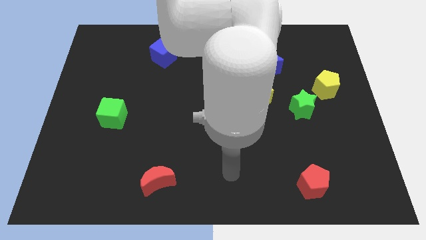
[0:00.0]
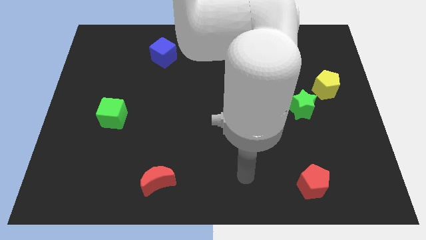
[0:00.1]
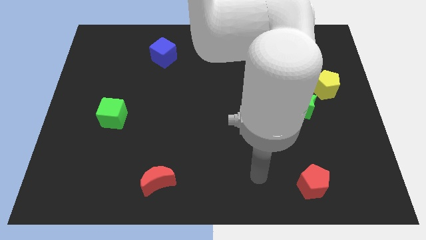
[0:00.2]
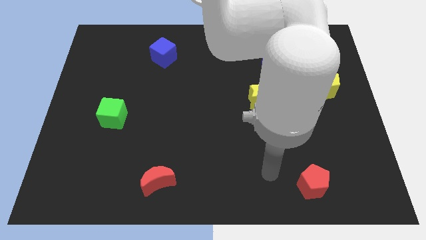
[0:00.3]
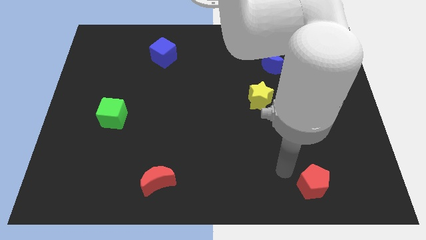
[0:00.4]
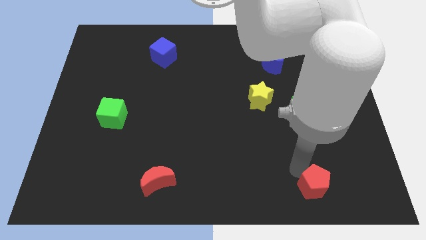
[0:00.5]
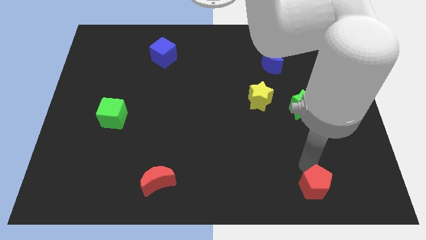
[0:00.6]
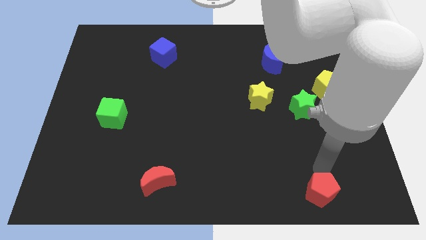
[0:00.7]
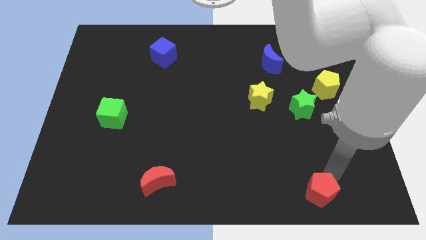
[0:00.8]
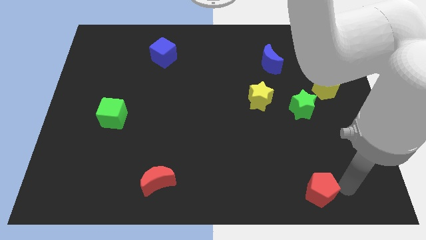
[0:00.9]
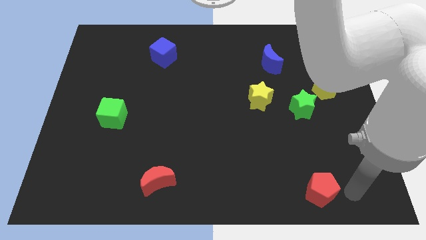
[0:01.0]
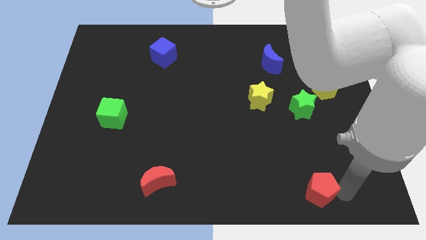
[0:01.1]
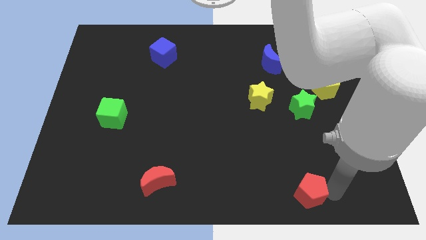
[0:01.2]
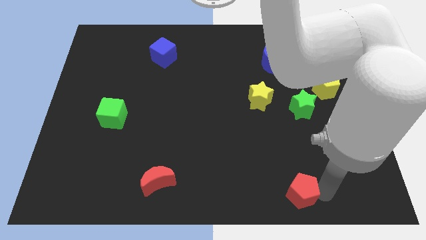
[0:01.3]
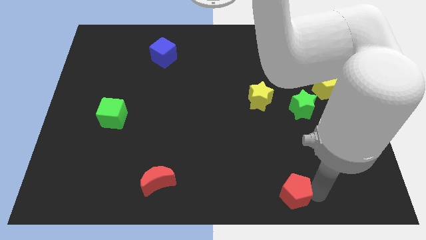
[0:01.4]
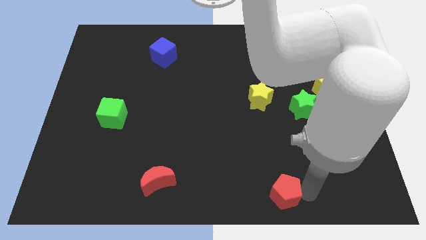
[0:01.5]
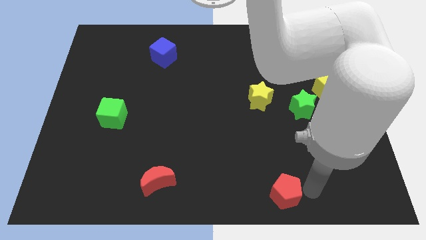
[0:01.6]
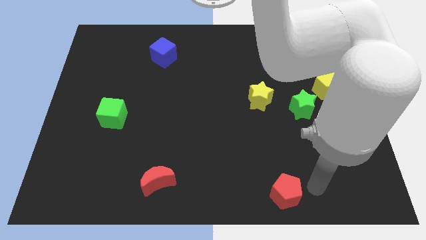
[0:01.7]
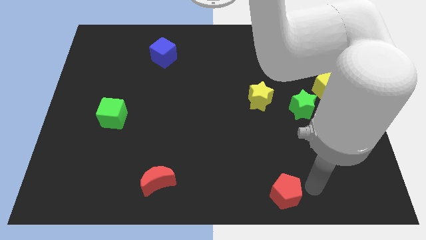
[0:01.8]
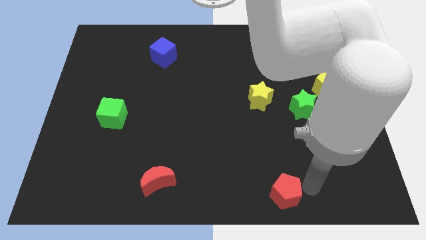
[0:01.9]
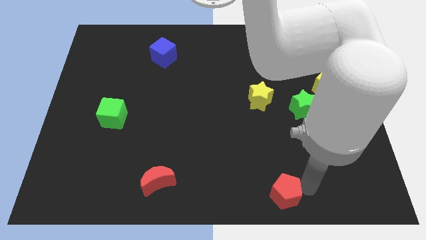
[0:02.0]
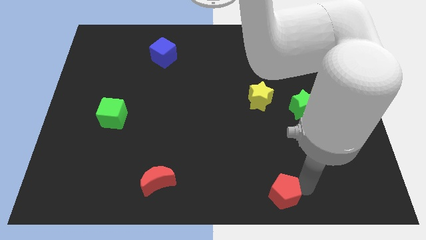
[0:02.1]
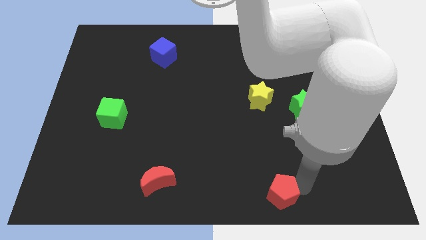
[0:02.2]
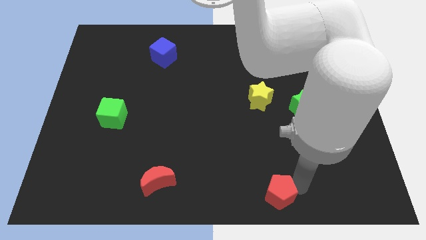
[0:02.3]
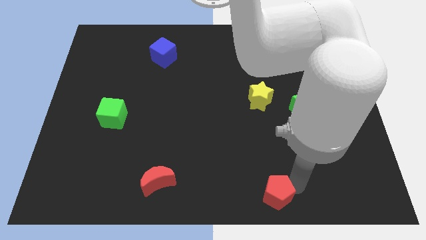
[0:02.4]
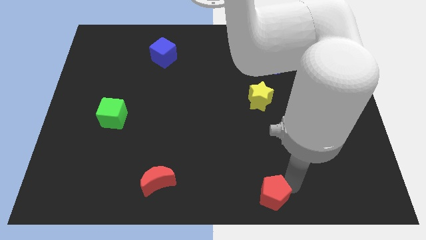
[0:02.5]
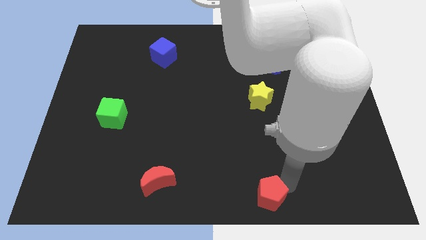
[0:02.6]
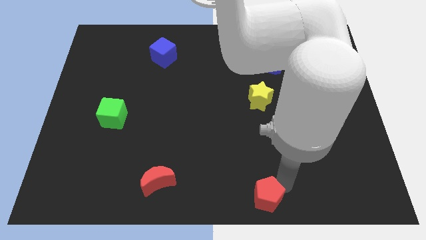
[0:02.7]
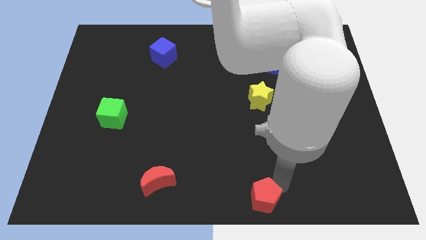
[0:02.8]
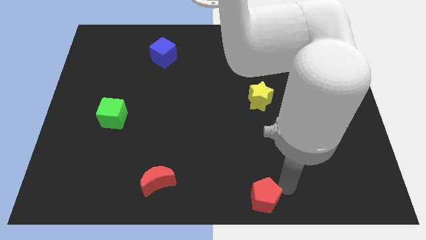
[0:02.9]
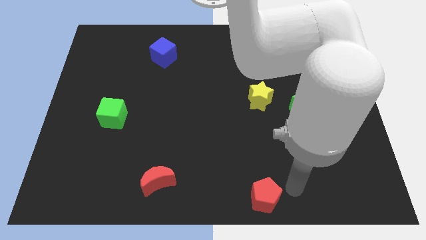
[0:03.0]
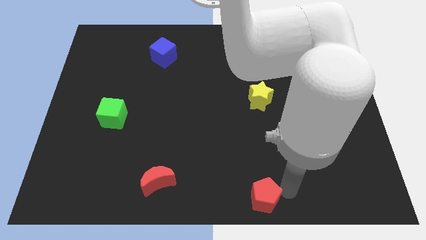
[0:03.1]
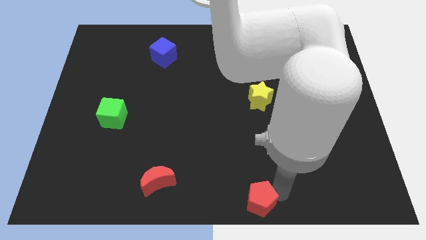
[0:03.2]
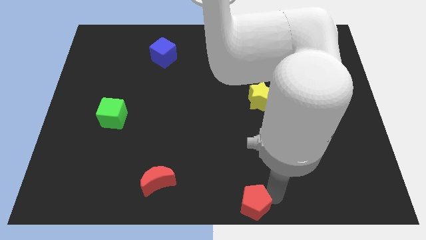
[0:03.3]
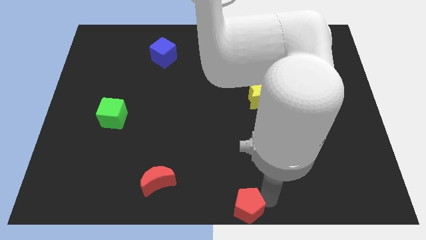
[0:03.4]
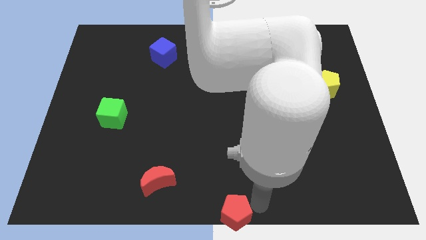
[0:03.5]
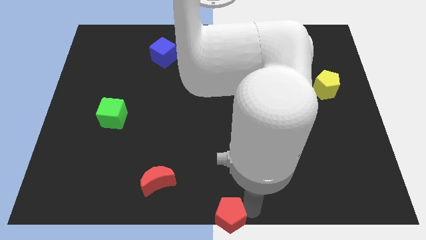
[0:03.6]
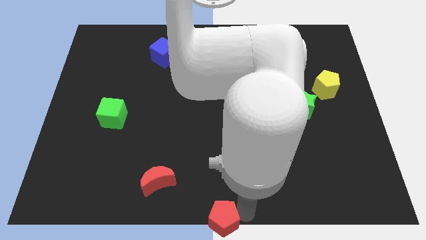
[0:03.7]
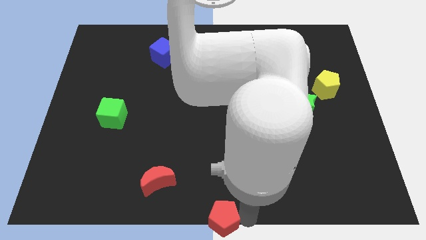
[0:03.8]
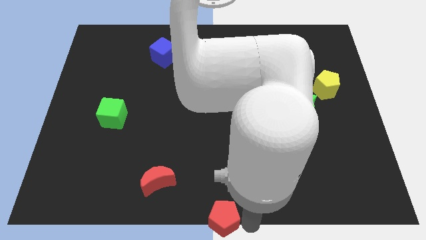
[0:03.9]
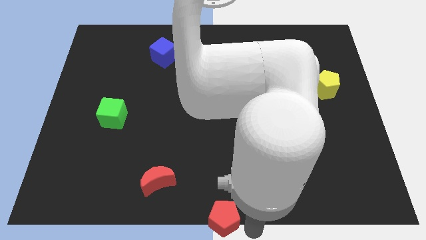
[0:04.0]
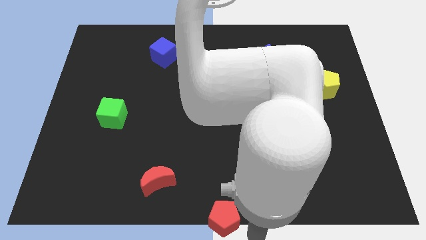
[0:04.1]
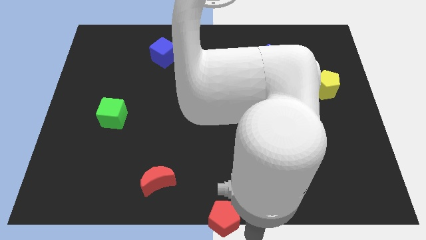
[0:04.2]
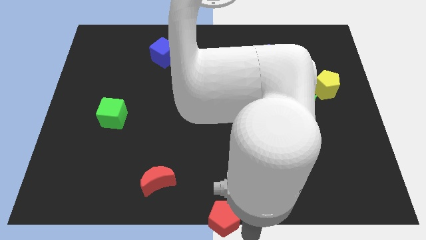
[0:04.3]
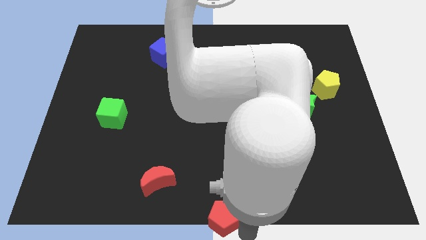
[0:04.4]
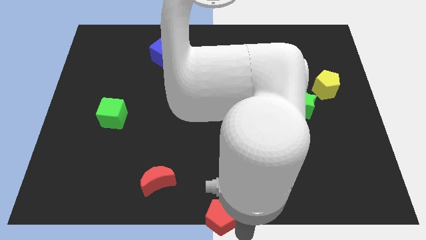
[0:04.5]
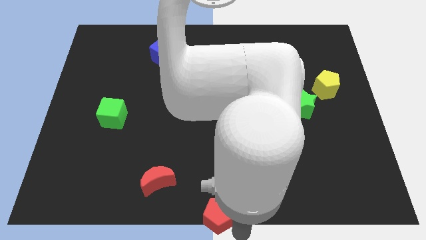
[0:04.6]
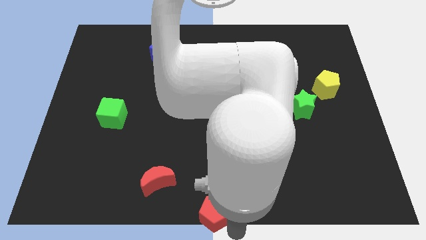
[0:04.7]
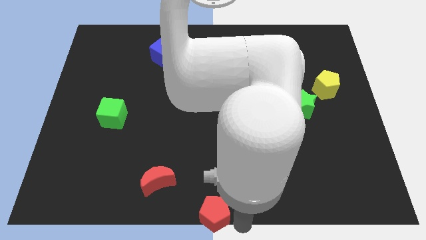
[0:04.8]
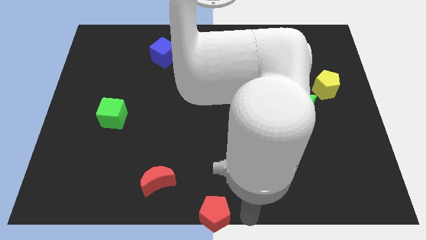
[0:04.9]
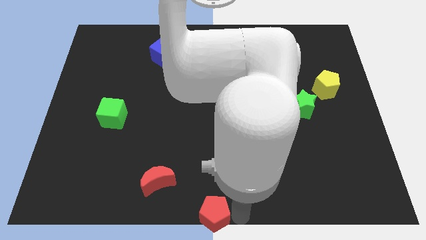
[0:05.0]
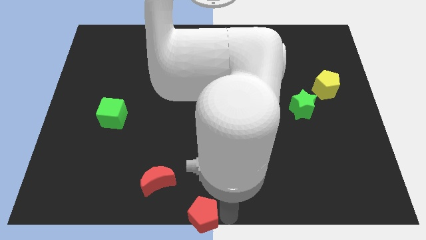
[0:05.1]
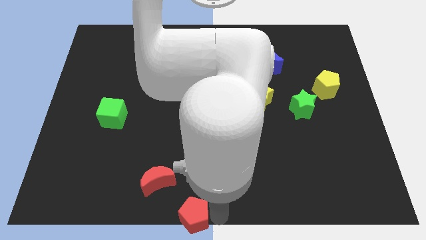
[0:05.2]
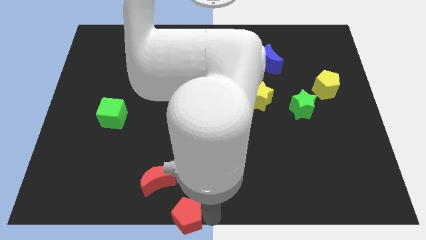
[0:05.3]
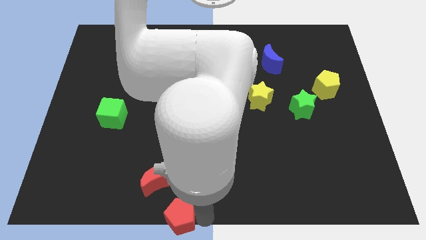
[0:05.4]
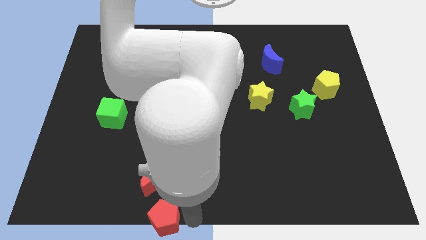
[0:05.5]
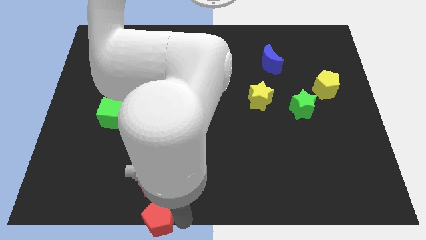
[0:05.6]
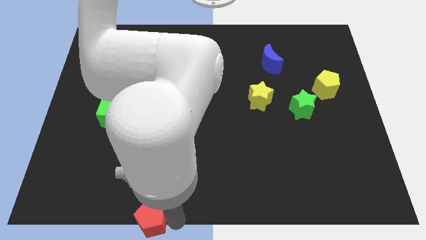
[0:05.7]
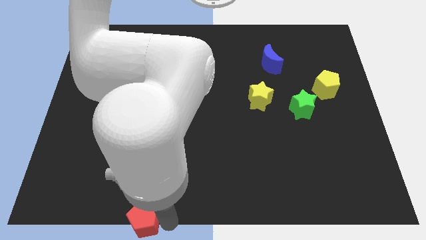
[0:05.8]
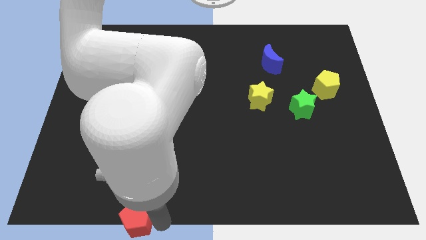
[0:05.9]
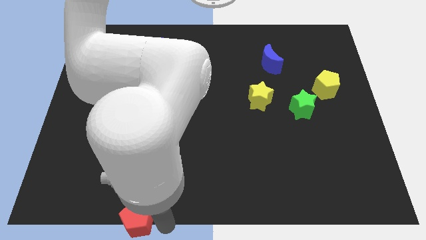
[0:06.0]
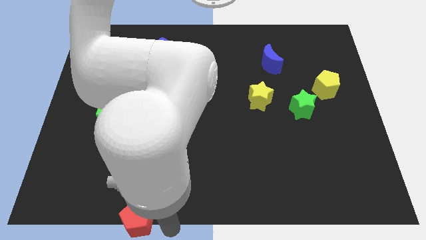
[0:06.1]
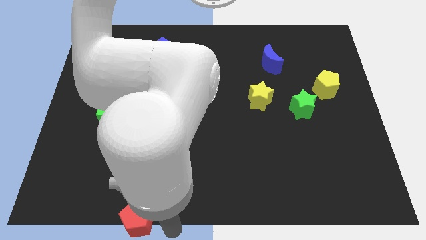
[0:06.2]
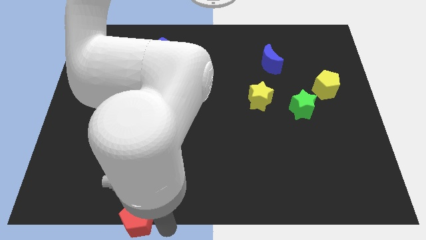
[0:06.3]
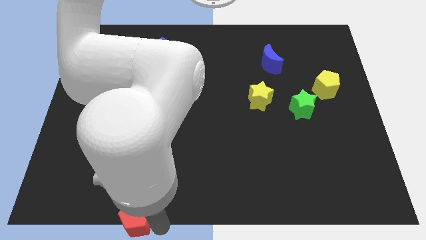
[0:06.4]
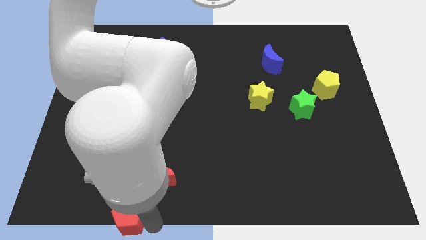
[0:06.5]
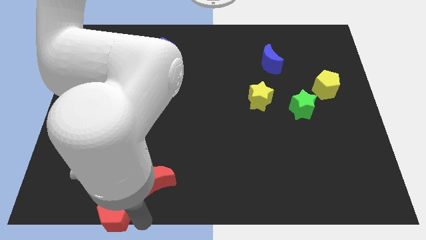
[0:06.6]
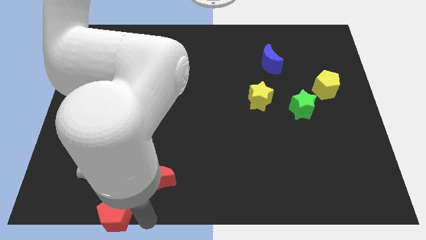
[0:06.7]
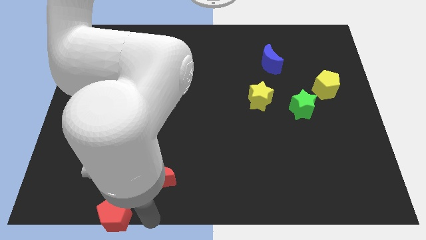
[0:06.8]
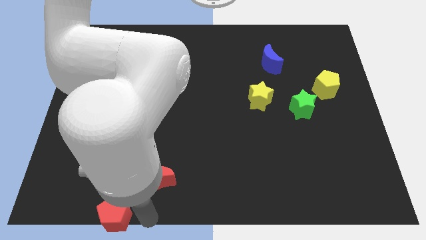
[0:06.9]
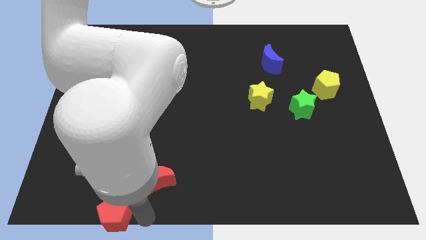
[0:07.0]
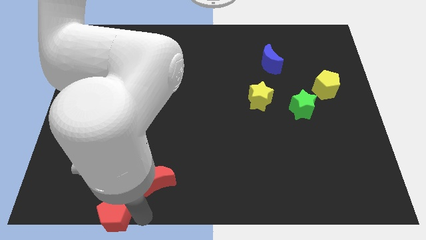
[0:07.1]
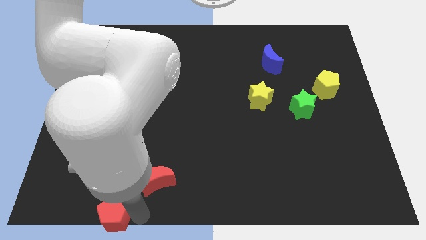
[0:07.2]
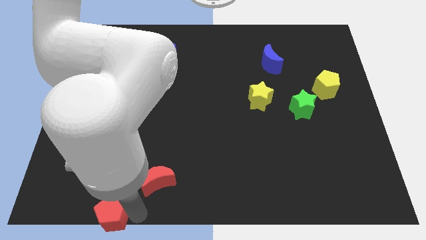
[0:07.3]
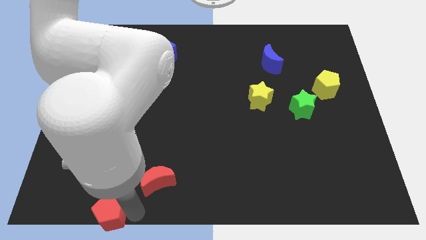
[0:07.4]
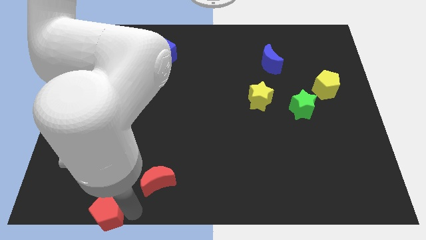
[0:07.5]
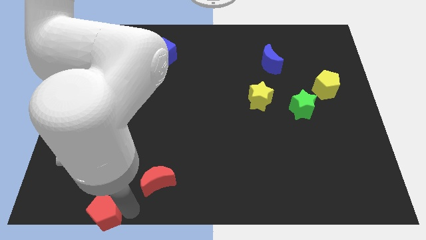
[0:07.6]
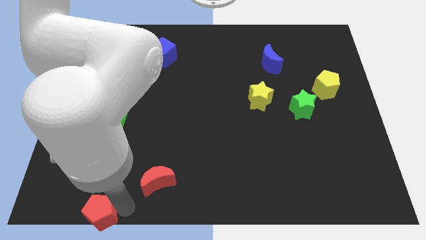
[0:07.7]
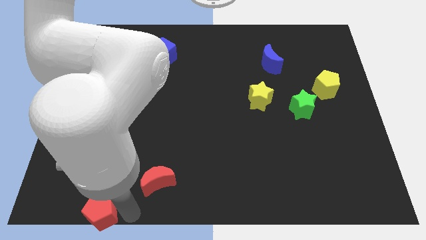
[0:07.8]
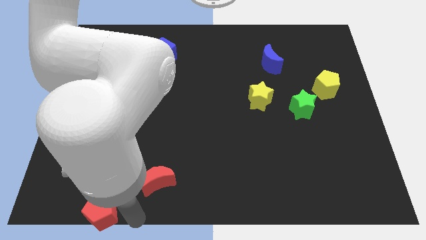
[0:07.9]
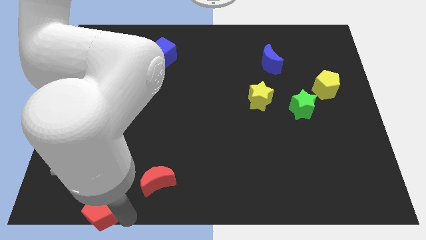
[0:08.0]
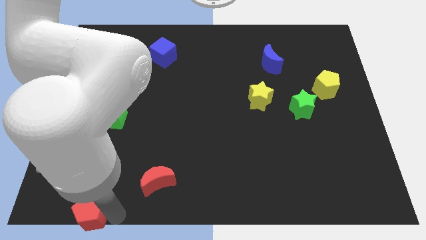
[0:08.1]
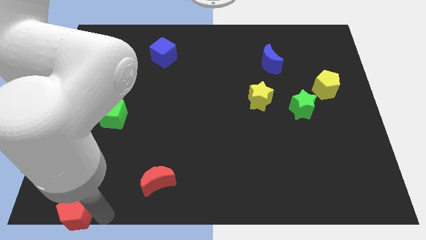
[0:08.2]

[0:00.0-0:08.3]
push the red pentagon to the bottom left corner
